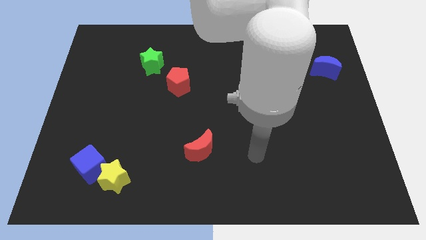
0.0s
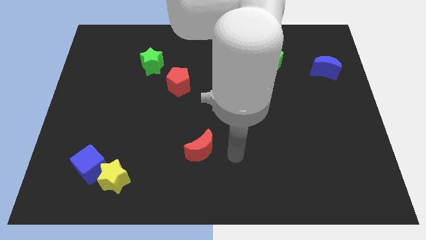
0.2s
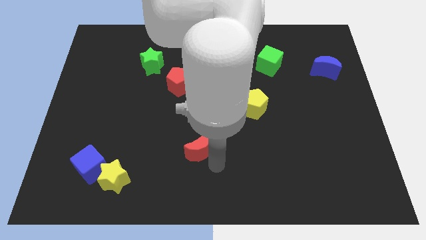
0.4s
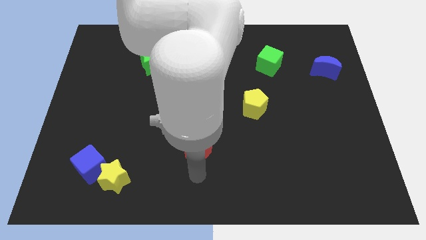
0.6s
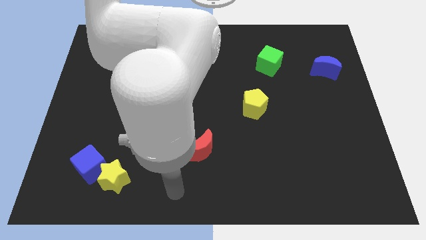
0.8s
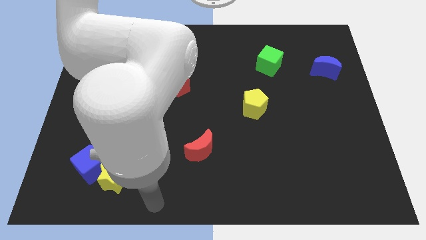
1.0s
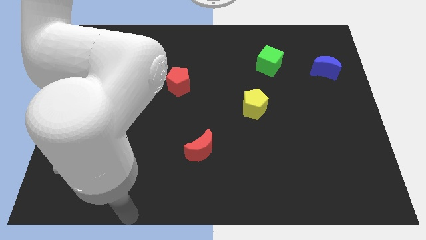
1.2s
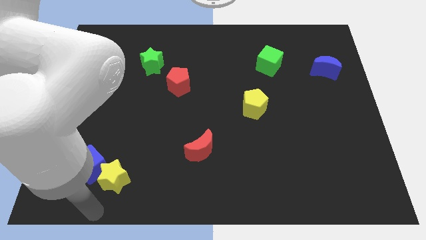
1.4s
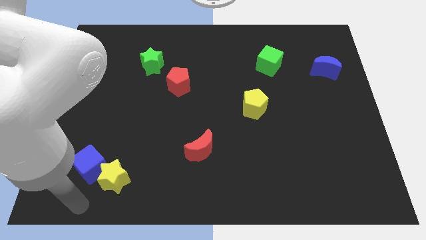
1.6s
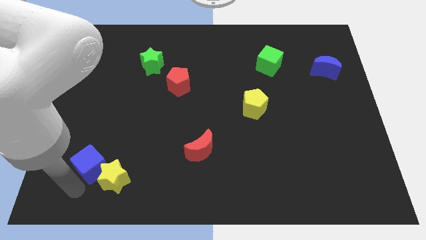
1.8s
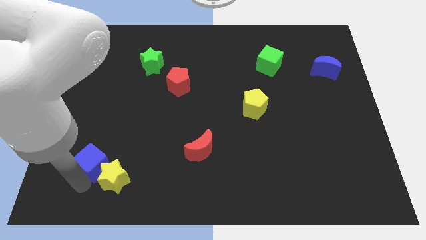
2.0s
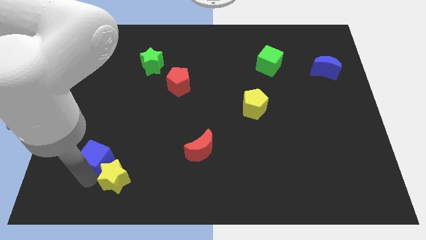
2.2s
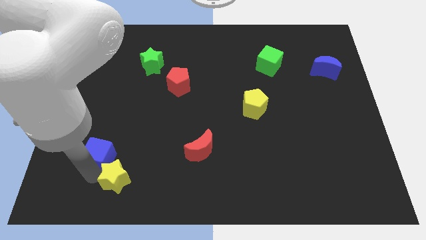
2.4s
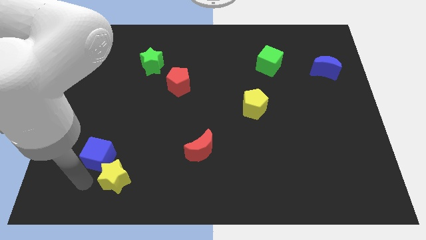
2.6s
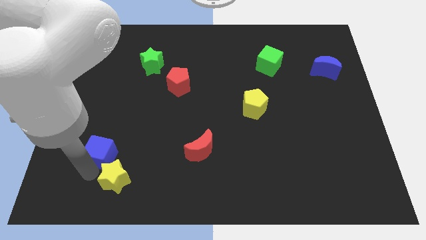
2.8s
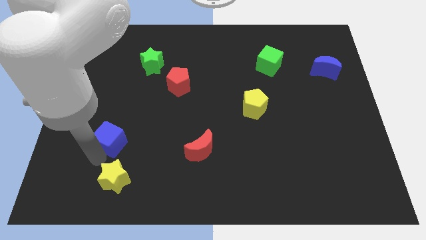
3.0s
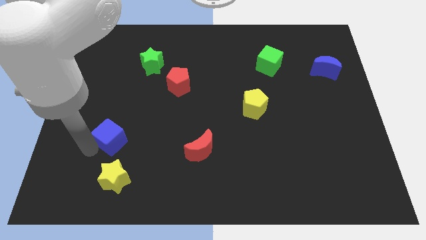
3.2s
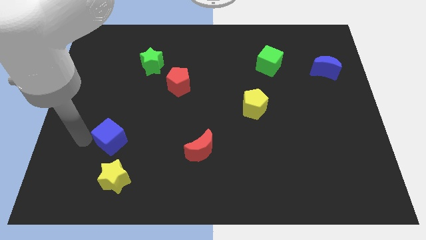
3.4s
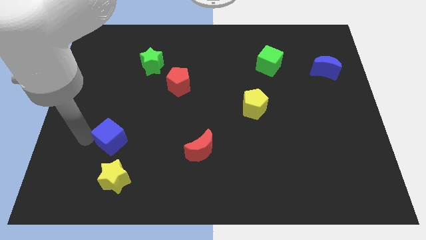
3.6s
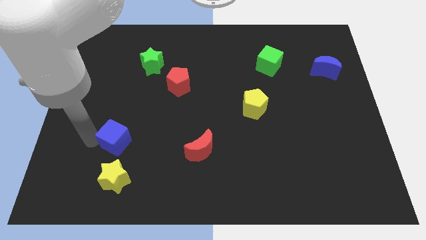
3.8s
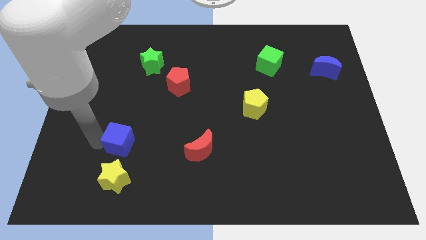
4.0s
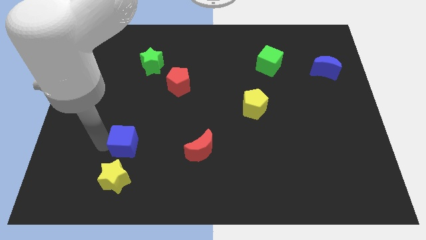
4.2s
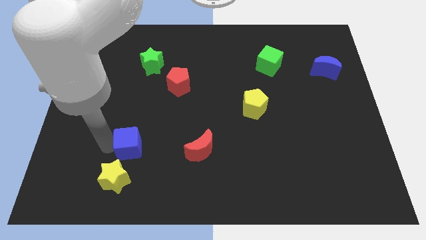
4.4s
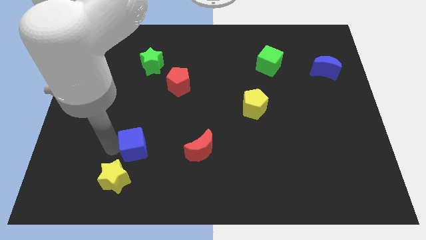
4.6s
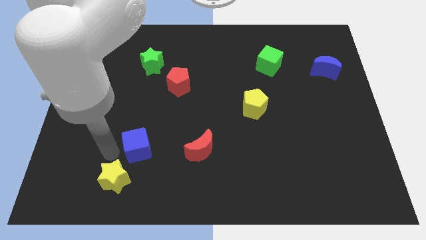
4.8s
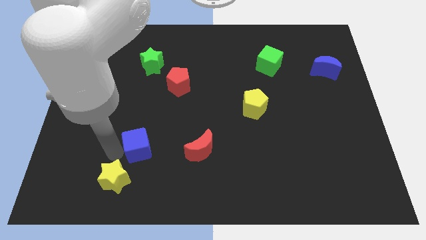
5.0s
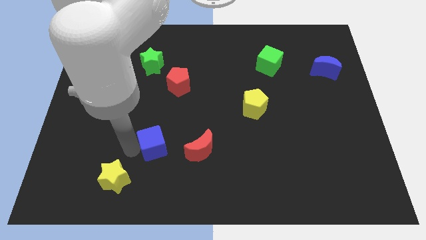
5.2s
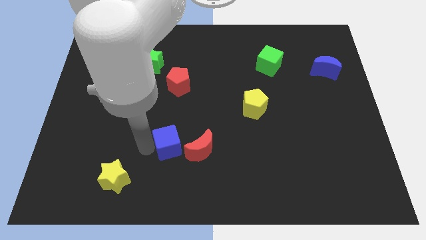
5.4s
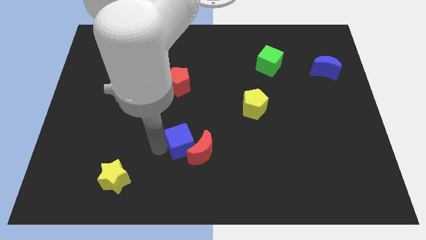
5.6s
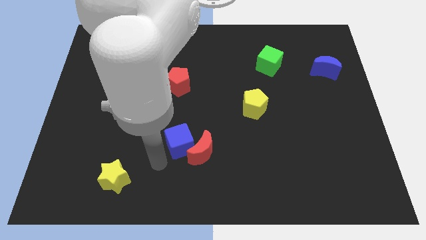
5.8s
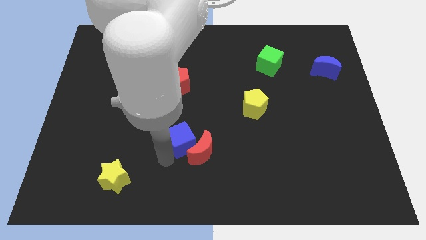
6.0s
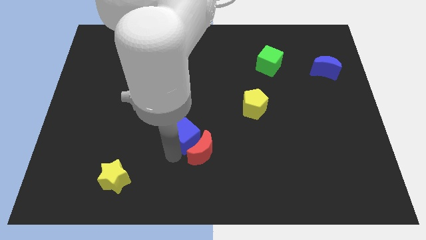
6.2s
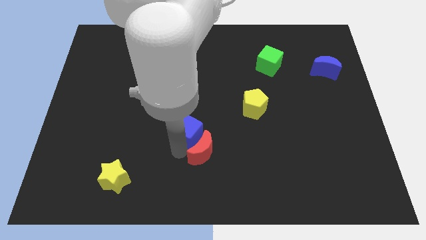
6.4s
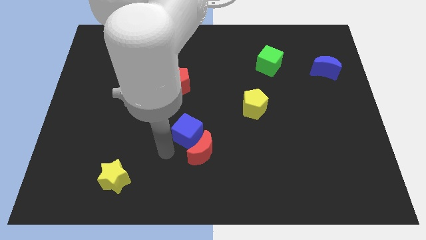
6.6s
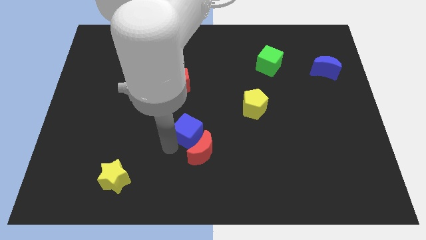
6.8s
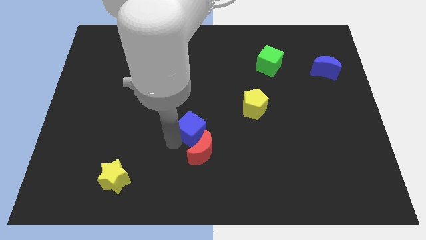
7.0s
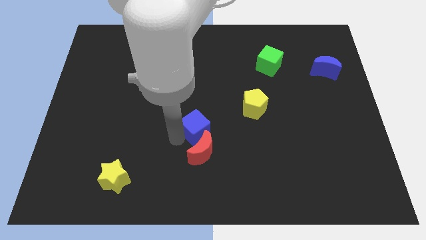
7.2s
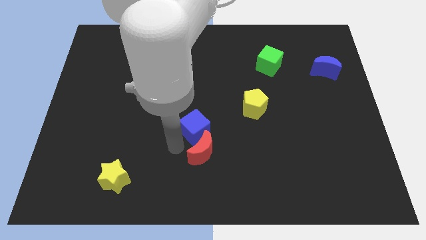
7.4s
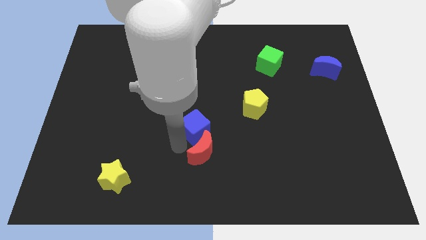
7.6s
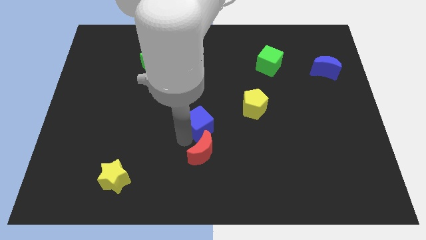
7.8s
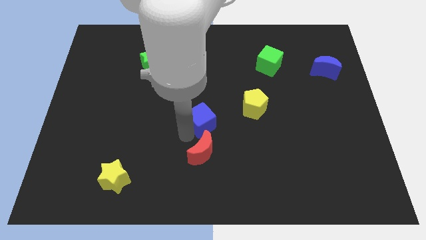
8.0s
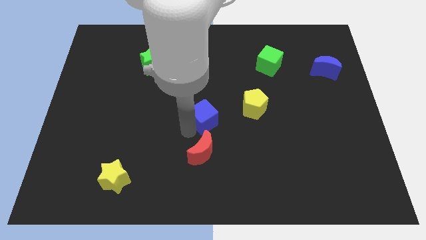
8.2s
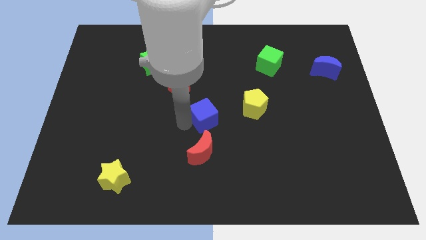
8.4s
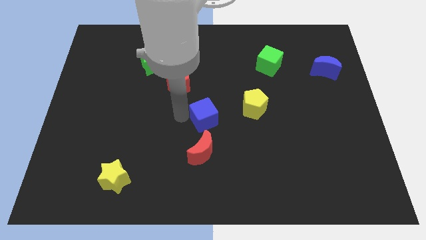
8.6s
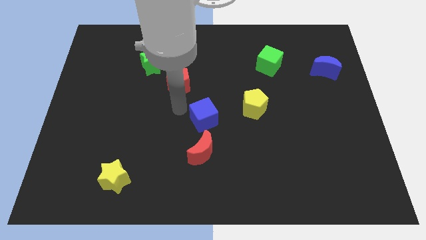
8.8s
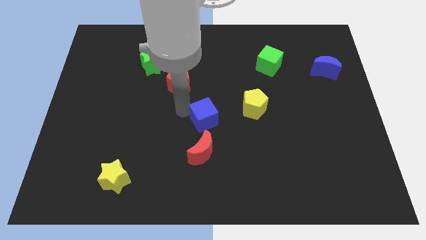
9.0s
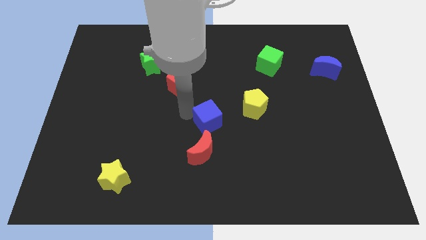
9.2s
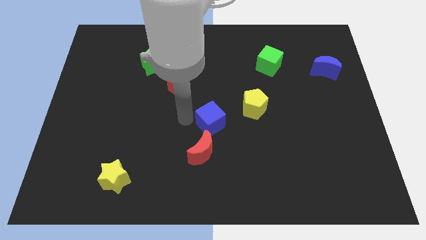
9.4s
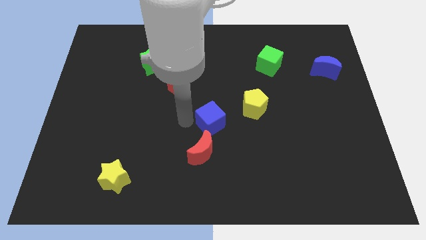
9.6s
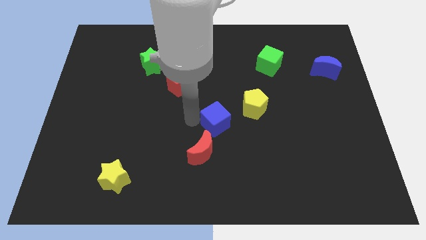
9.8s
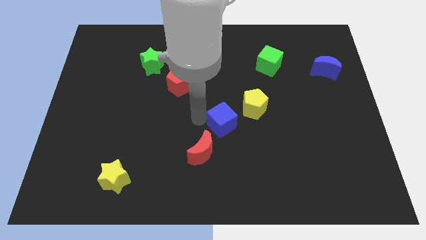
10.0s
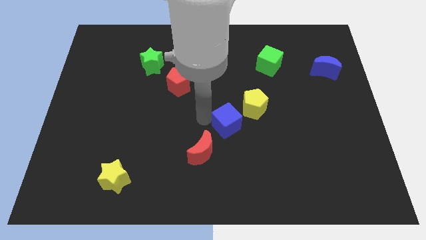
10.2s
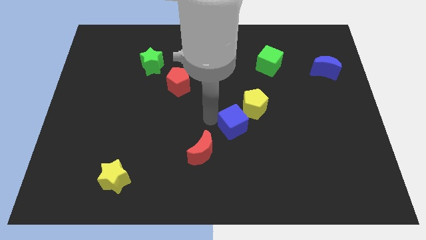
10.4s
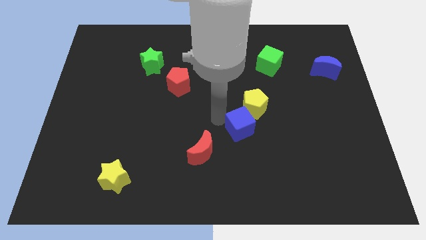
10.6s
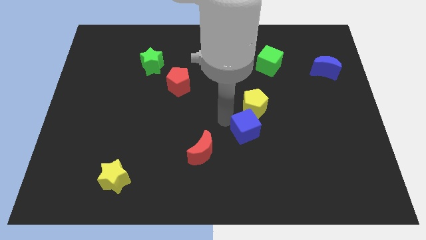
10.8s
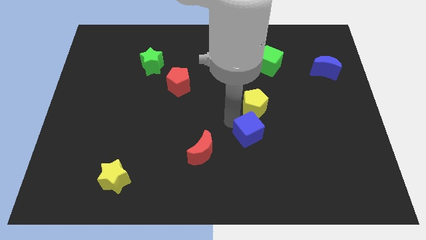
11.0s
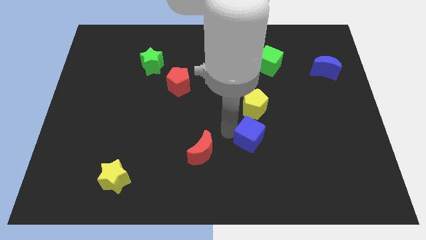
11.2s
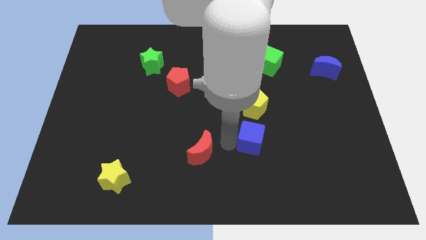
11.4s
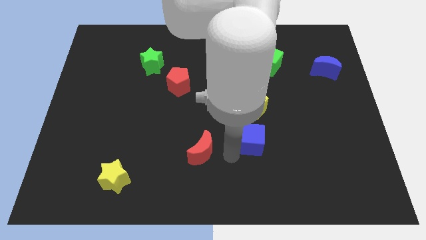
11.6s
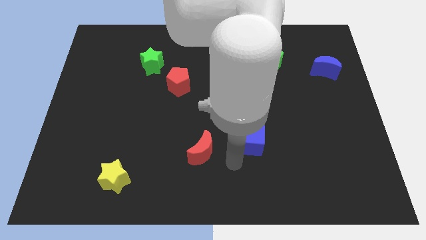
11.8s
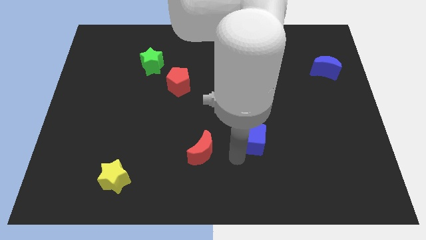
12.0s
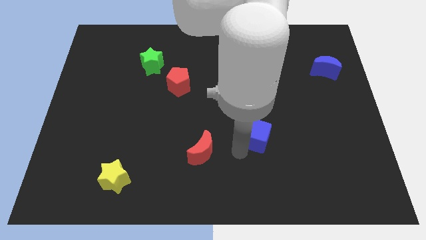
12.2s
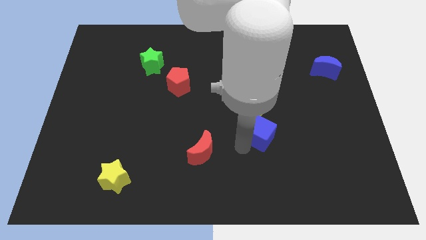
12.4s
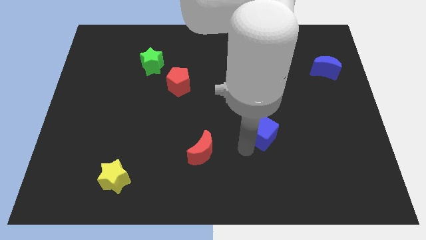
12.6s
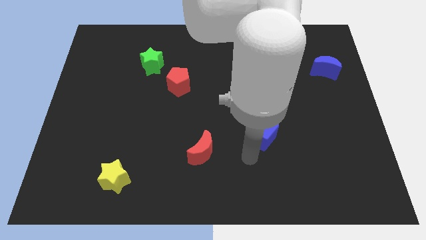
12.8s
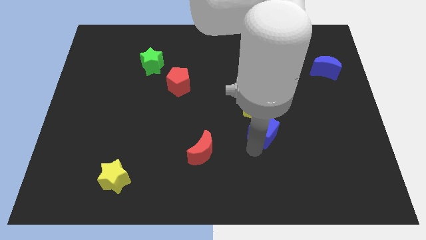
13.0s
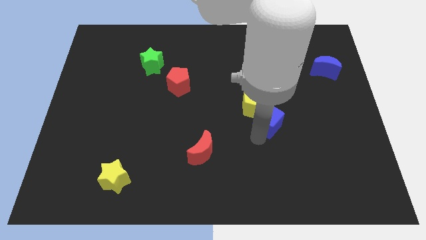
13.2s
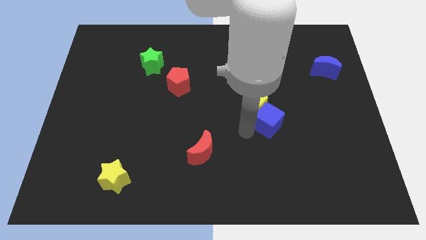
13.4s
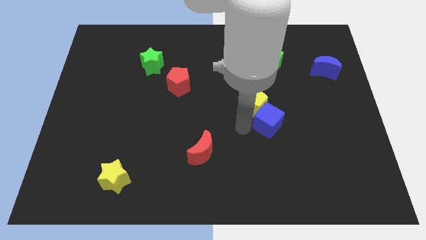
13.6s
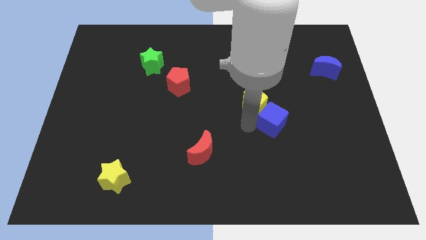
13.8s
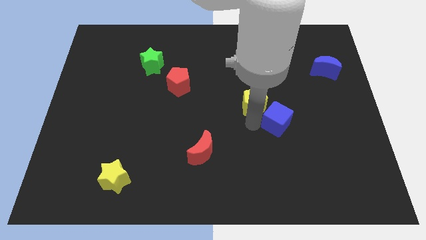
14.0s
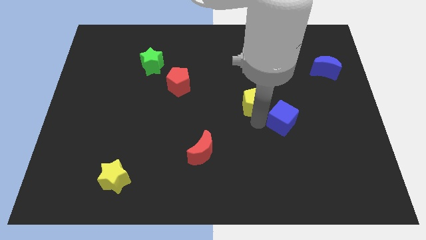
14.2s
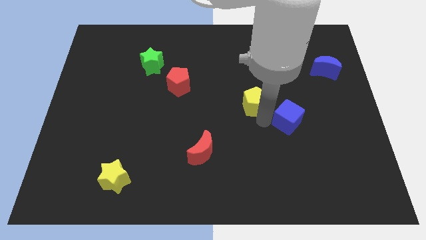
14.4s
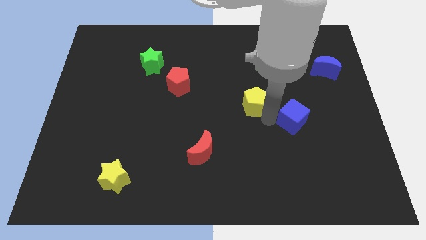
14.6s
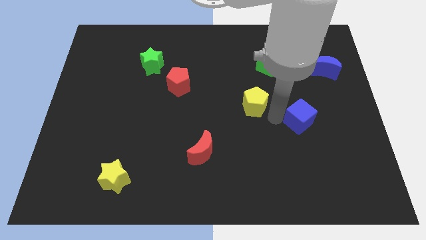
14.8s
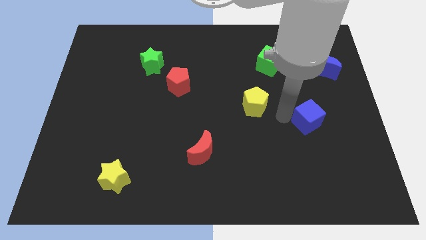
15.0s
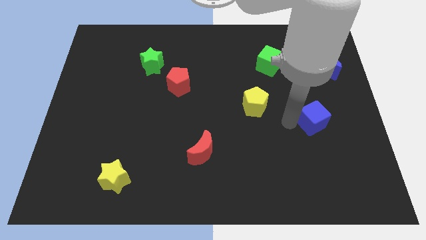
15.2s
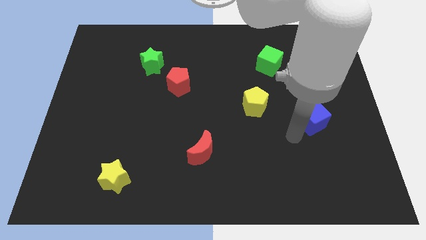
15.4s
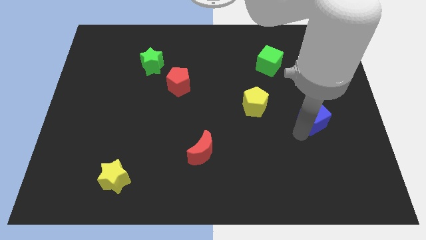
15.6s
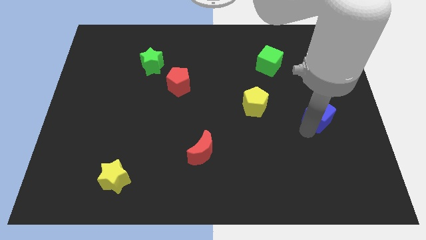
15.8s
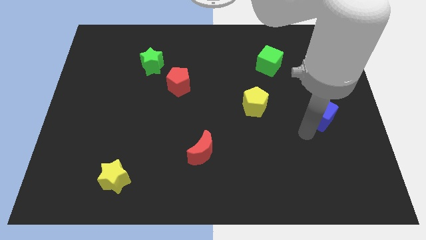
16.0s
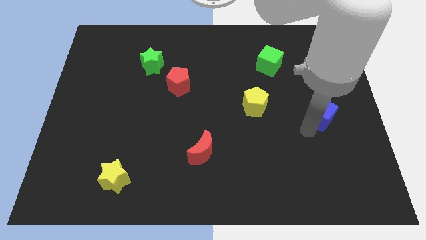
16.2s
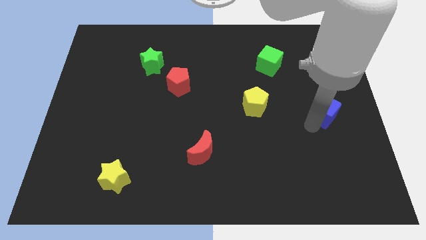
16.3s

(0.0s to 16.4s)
push the blue cube below the blue moon
